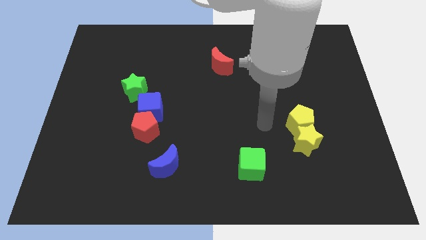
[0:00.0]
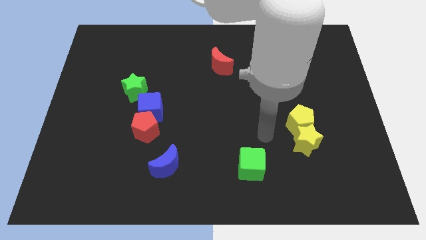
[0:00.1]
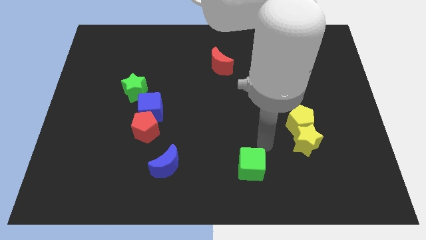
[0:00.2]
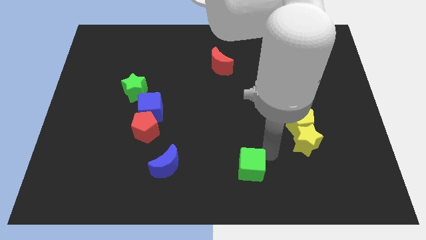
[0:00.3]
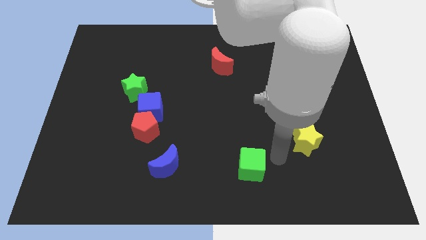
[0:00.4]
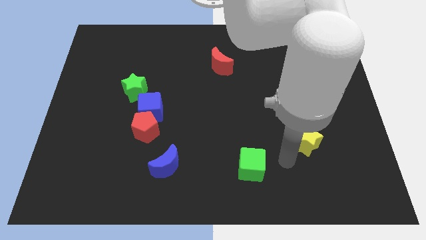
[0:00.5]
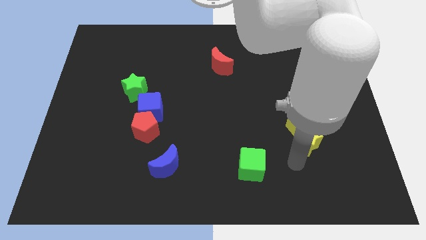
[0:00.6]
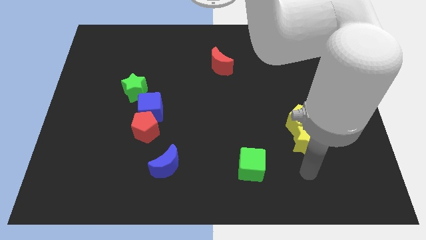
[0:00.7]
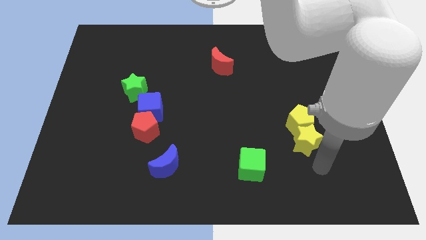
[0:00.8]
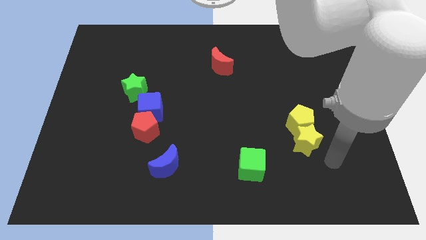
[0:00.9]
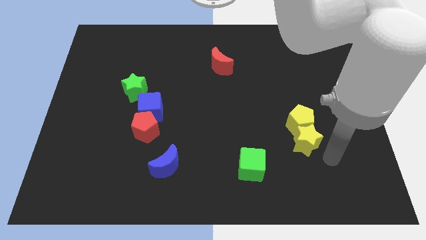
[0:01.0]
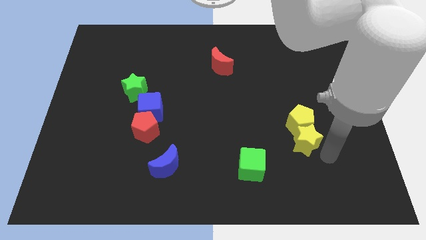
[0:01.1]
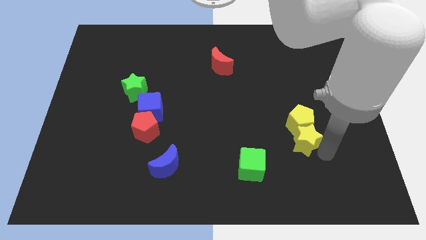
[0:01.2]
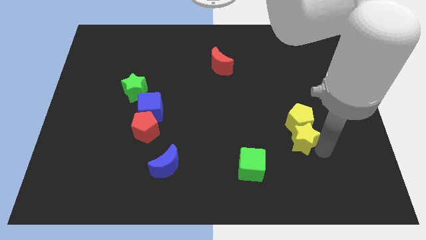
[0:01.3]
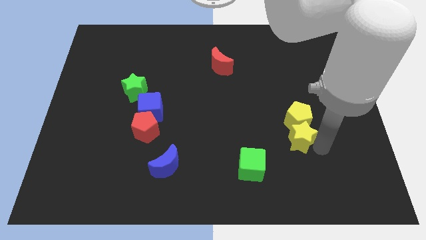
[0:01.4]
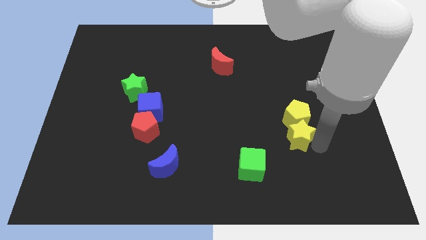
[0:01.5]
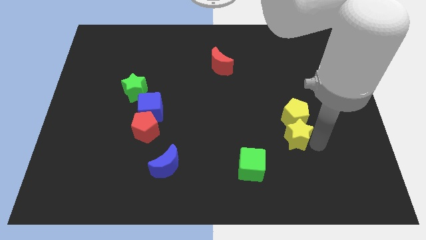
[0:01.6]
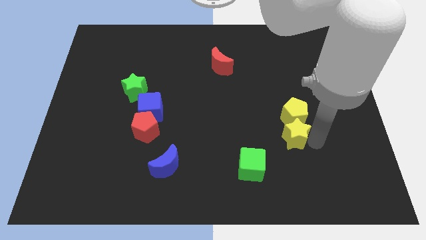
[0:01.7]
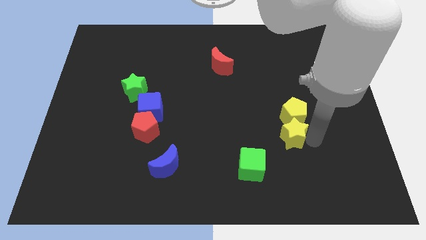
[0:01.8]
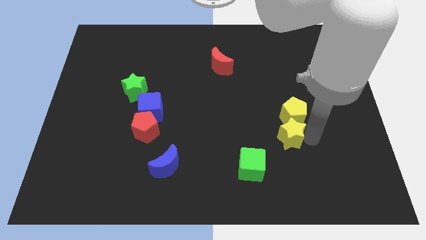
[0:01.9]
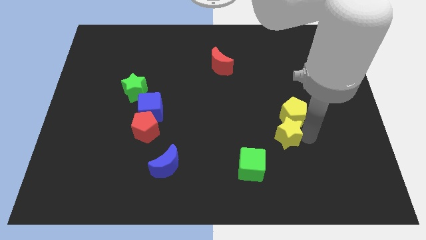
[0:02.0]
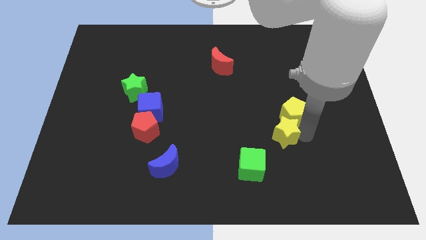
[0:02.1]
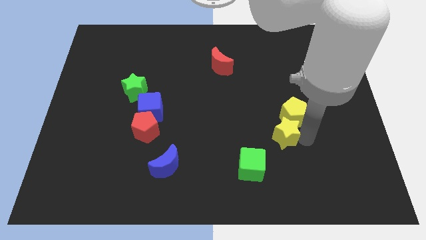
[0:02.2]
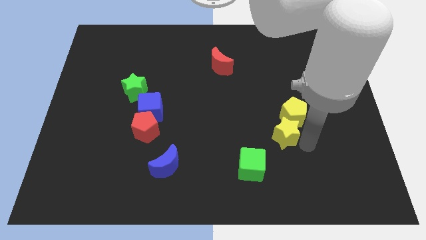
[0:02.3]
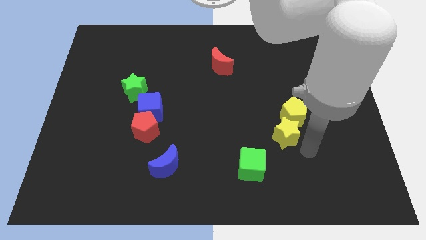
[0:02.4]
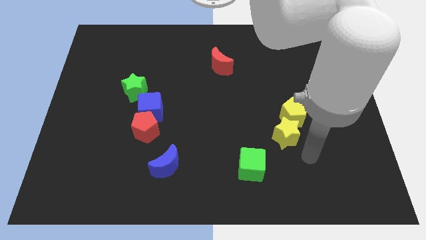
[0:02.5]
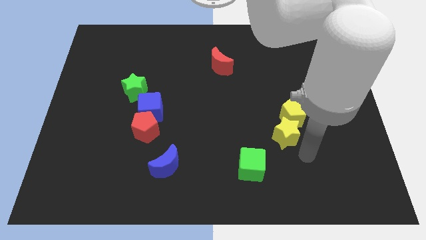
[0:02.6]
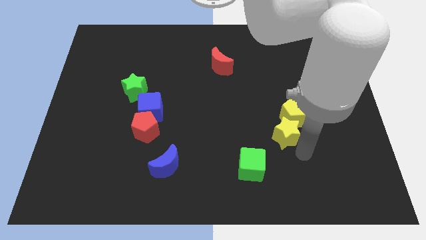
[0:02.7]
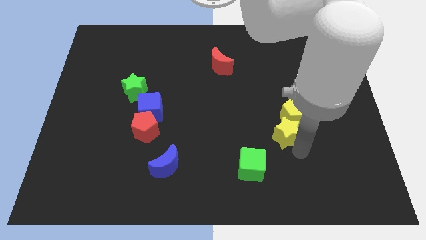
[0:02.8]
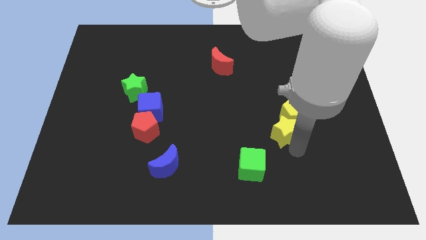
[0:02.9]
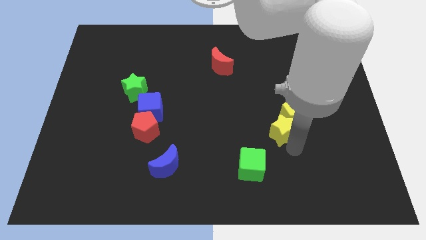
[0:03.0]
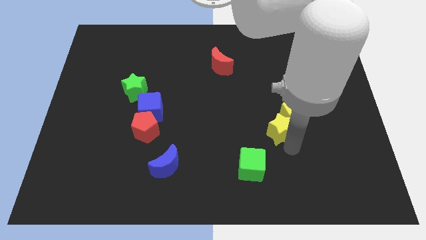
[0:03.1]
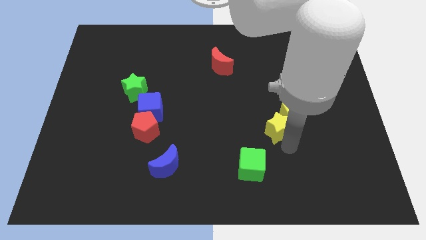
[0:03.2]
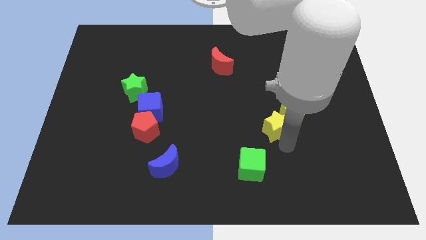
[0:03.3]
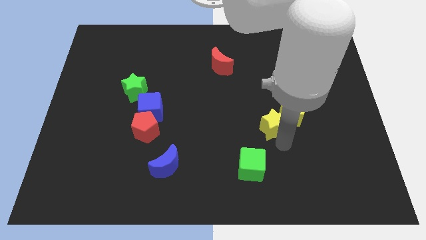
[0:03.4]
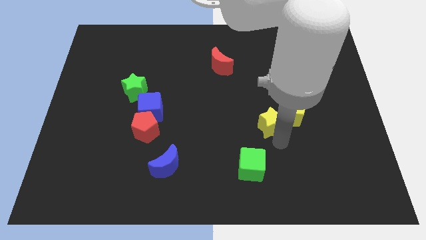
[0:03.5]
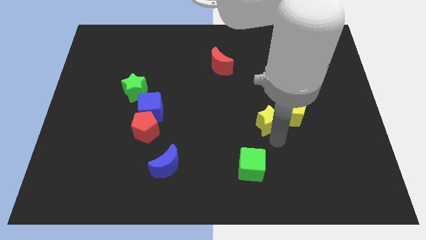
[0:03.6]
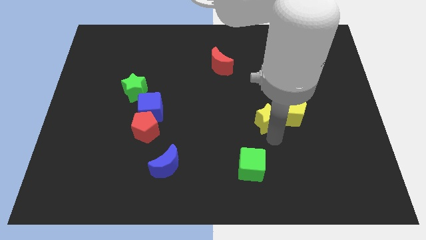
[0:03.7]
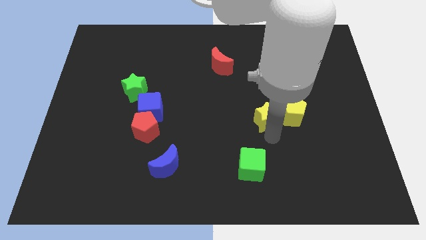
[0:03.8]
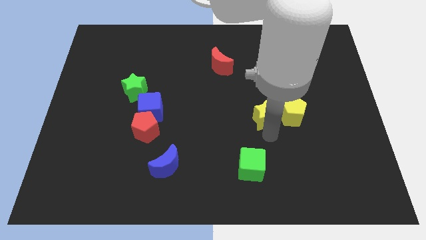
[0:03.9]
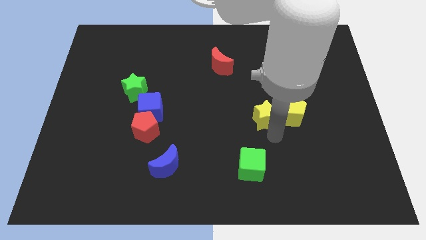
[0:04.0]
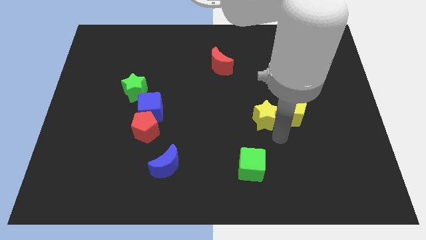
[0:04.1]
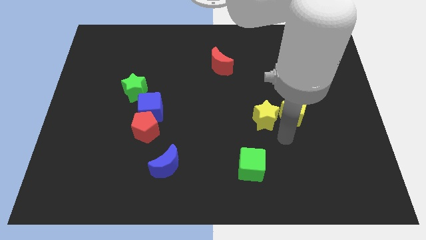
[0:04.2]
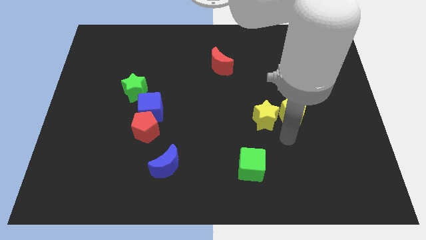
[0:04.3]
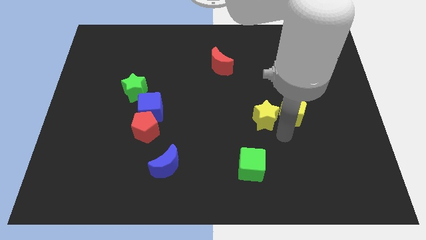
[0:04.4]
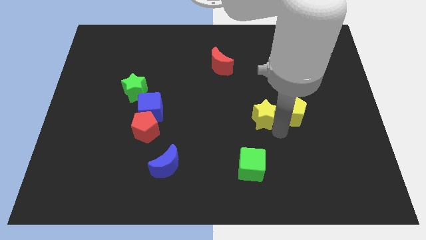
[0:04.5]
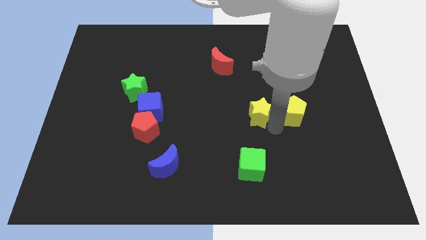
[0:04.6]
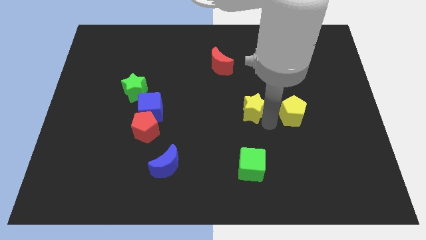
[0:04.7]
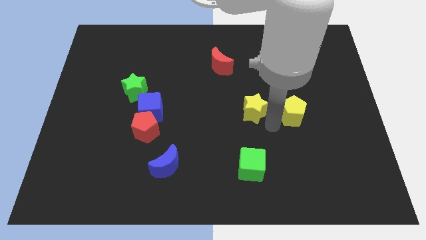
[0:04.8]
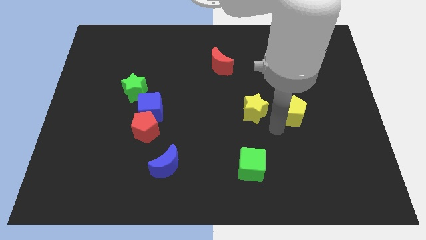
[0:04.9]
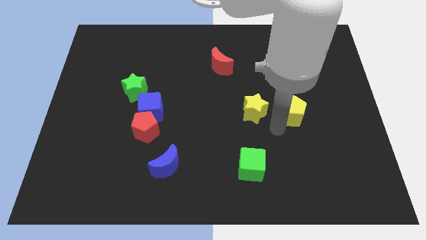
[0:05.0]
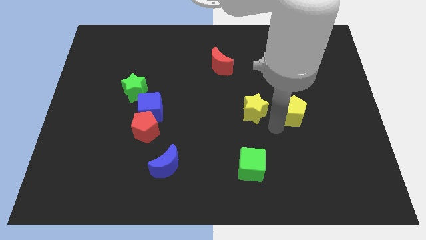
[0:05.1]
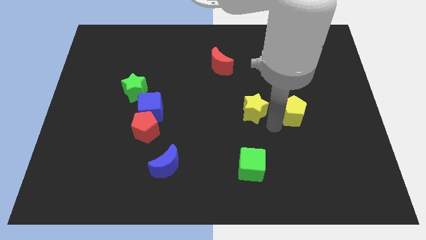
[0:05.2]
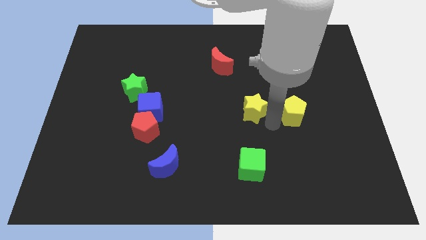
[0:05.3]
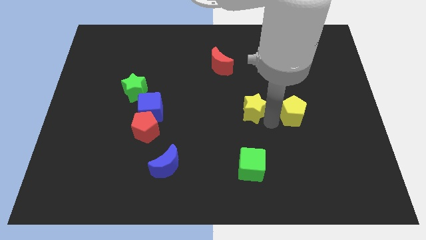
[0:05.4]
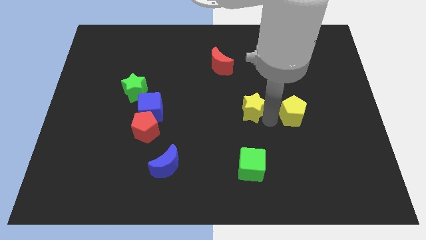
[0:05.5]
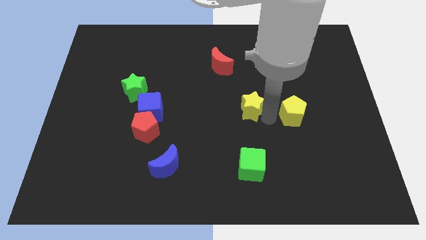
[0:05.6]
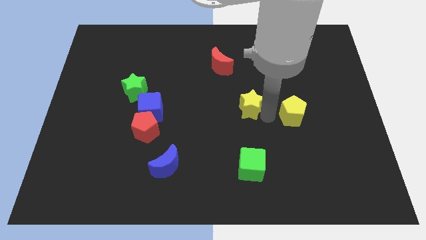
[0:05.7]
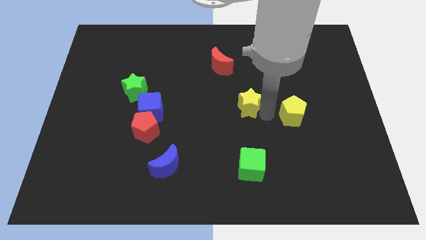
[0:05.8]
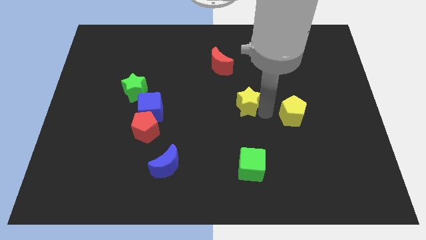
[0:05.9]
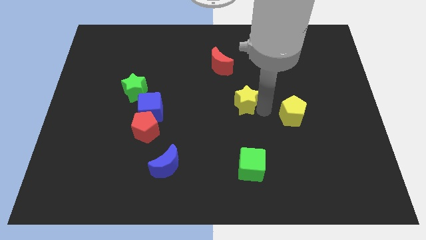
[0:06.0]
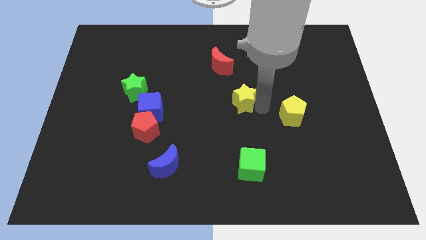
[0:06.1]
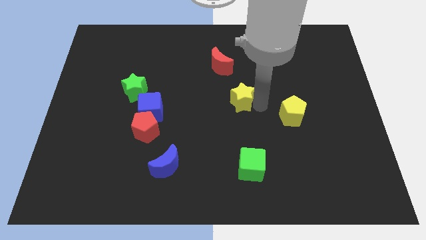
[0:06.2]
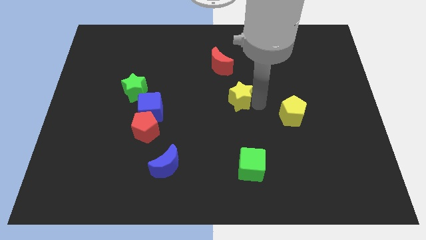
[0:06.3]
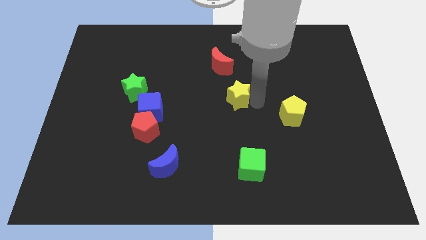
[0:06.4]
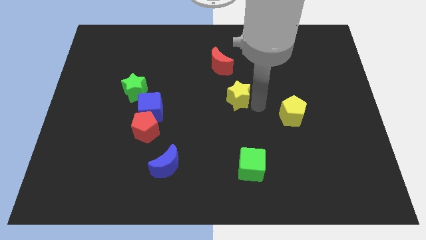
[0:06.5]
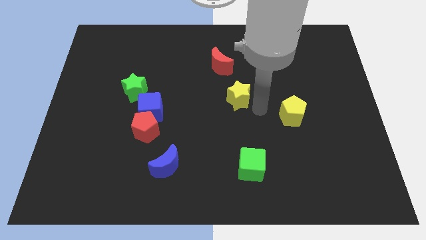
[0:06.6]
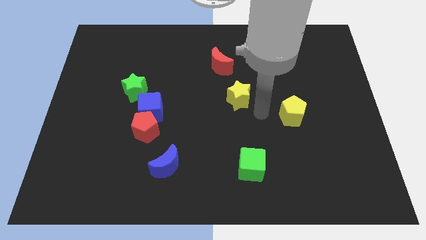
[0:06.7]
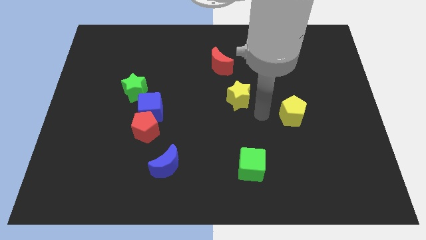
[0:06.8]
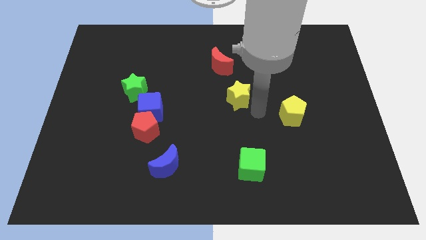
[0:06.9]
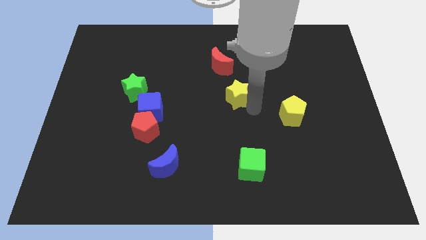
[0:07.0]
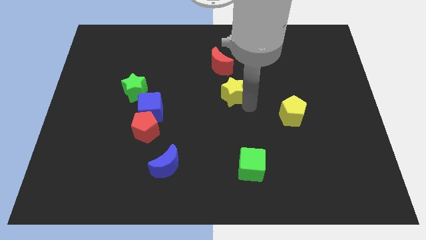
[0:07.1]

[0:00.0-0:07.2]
push the yellow star diagonally up and left

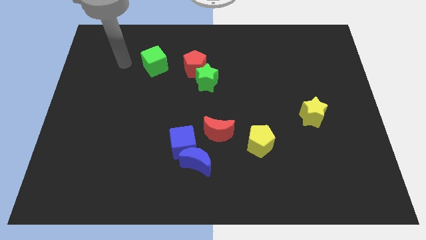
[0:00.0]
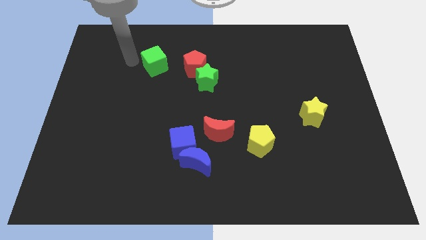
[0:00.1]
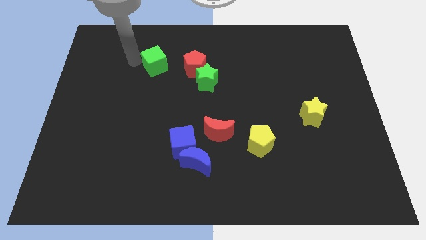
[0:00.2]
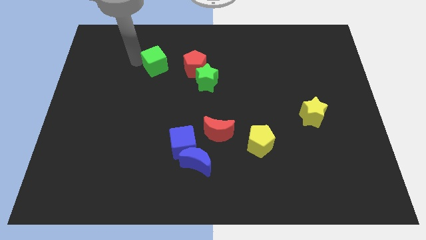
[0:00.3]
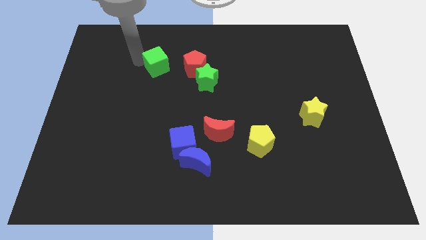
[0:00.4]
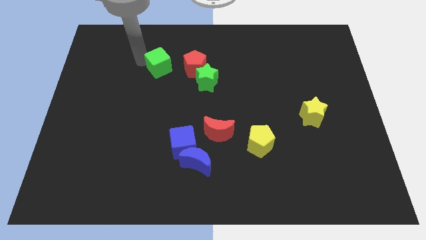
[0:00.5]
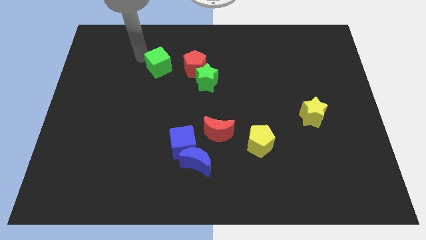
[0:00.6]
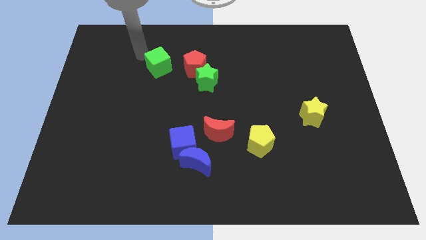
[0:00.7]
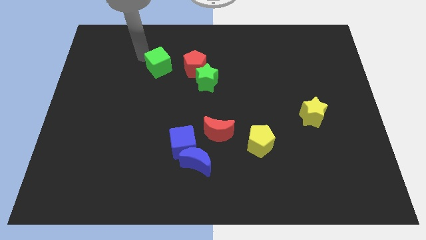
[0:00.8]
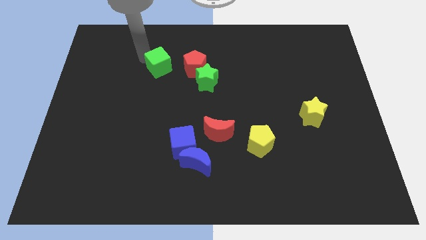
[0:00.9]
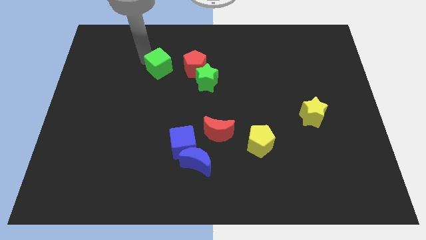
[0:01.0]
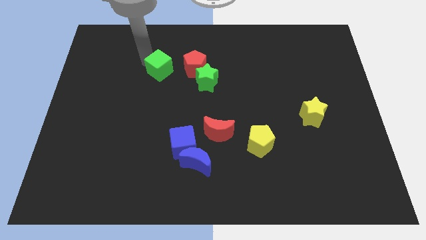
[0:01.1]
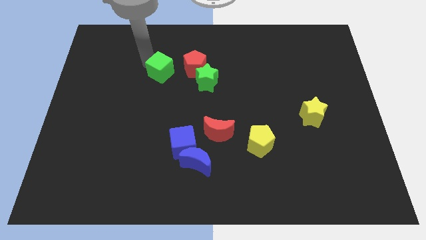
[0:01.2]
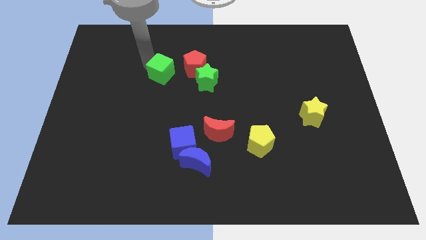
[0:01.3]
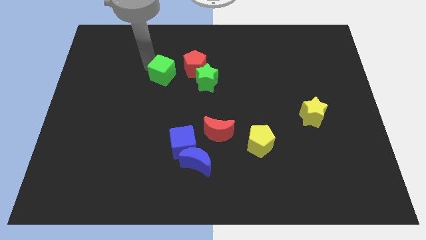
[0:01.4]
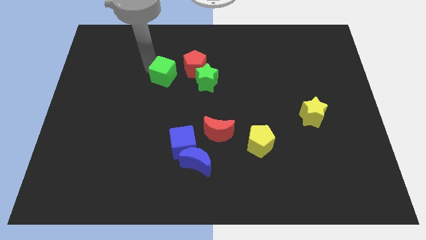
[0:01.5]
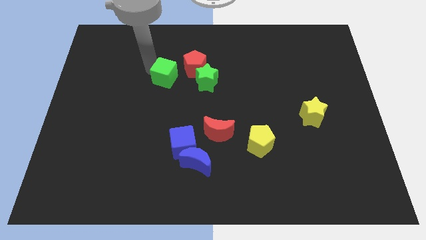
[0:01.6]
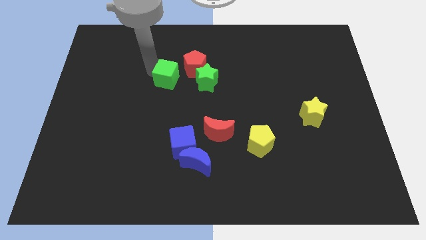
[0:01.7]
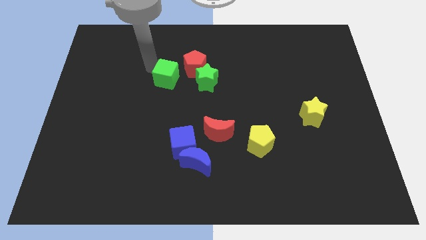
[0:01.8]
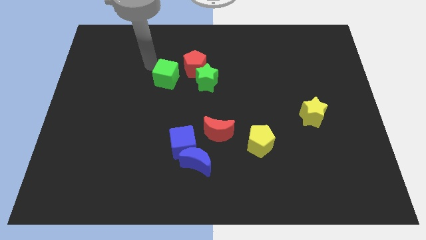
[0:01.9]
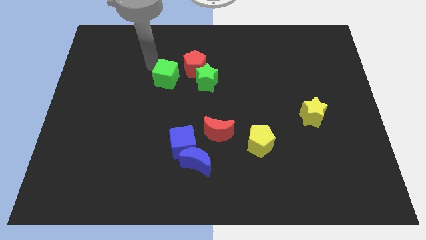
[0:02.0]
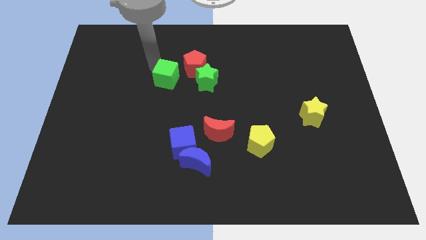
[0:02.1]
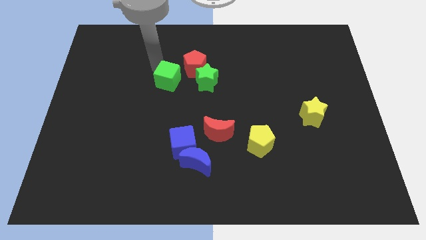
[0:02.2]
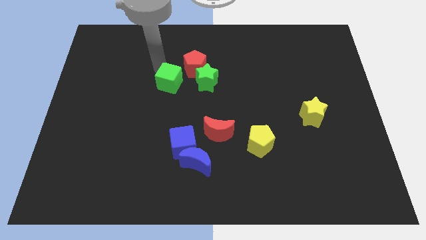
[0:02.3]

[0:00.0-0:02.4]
move the green cube downwards and right a little bit
